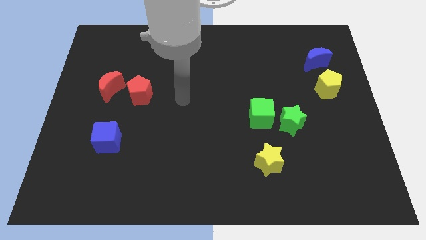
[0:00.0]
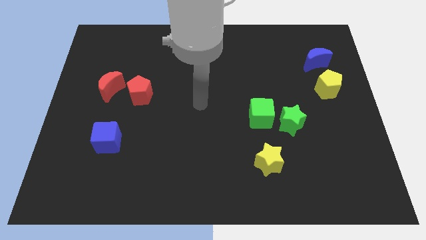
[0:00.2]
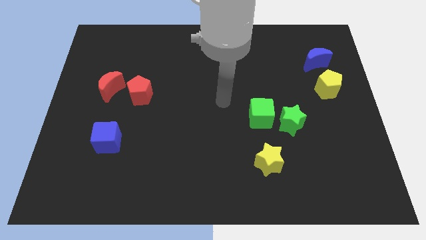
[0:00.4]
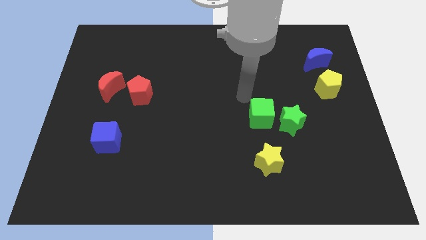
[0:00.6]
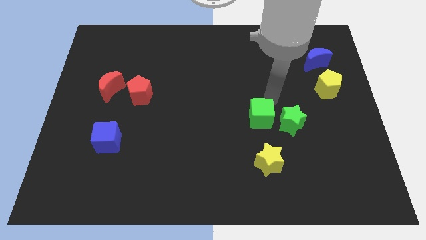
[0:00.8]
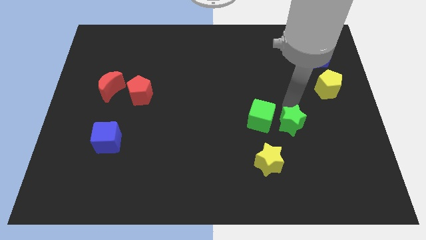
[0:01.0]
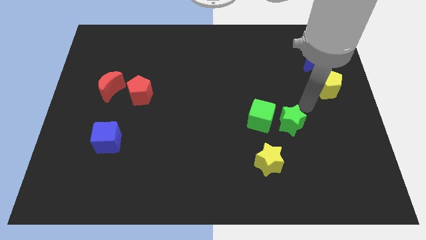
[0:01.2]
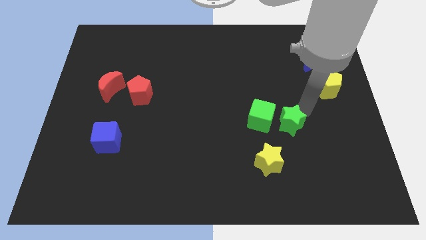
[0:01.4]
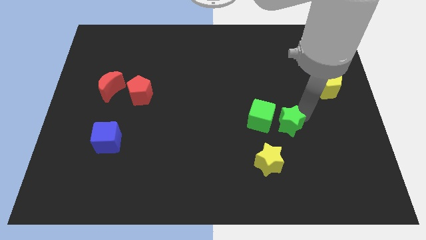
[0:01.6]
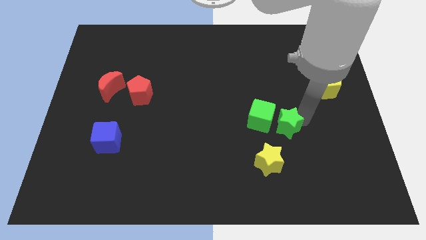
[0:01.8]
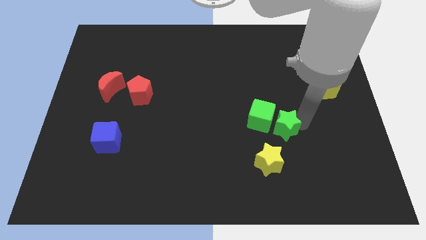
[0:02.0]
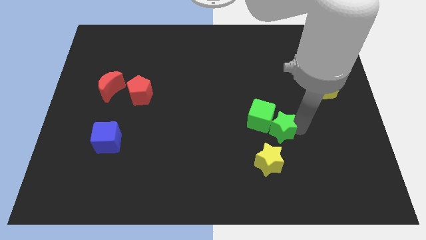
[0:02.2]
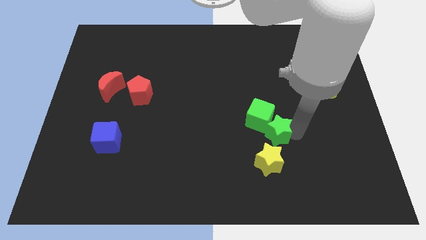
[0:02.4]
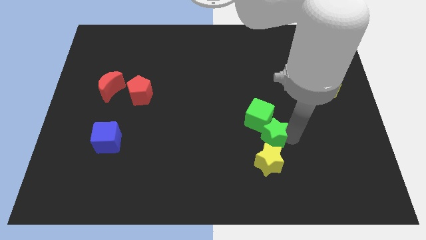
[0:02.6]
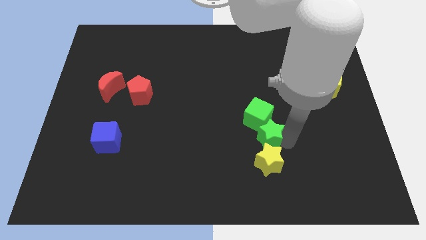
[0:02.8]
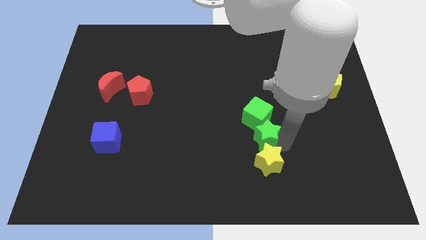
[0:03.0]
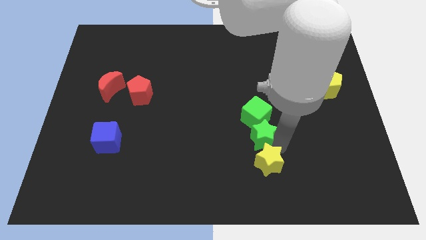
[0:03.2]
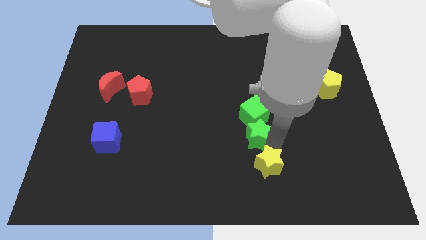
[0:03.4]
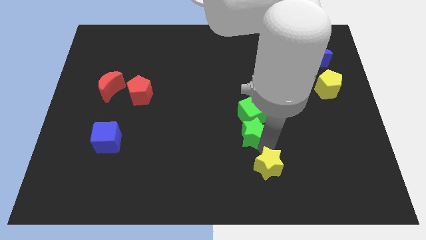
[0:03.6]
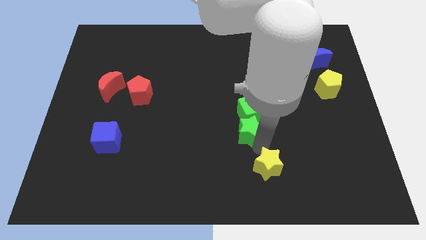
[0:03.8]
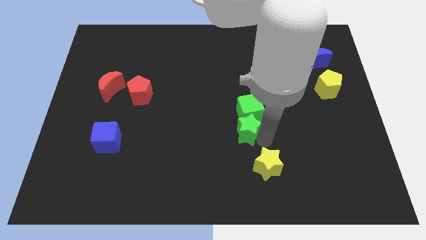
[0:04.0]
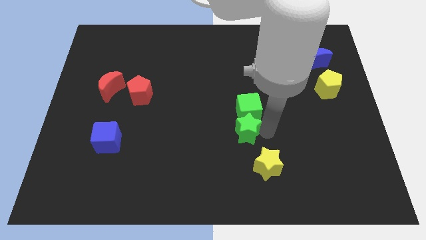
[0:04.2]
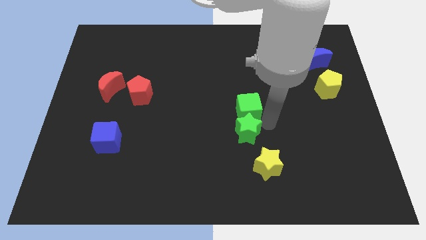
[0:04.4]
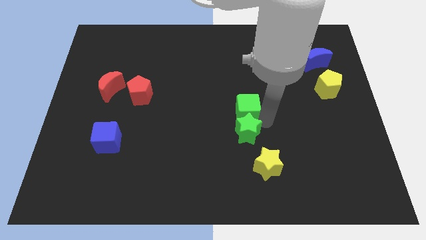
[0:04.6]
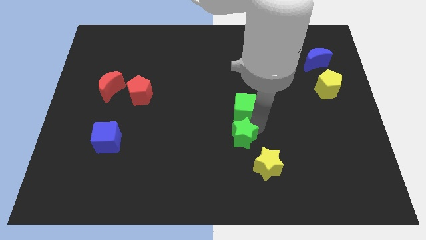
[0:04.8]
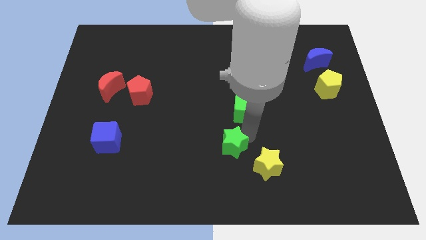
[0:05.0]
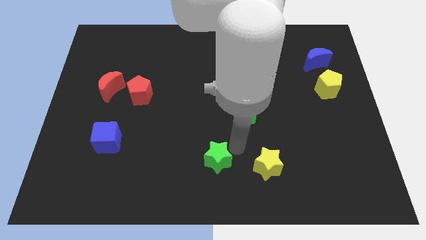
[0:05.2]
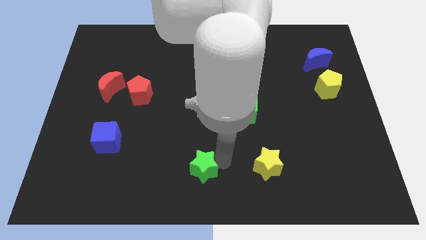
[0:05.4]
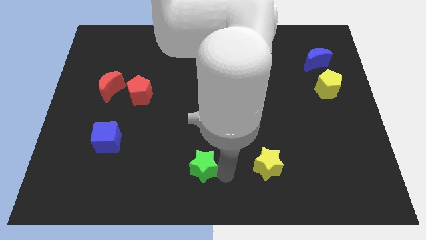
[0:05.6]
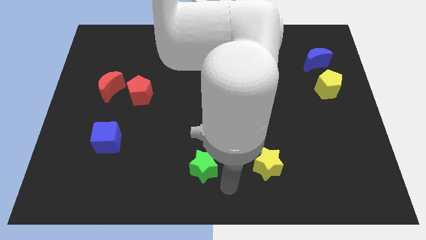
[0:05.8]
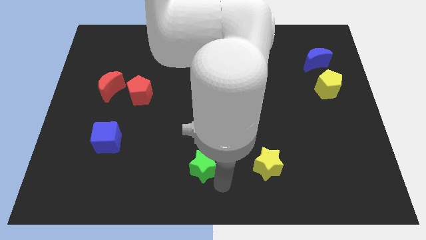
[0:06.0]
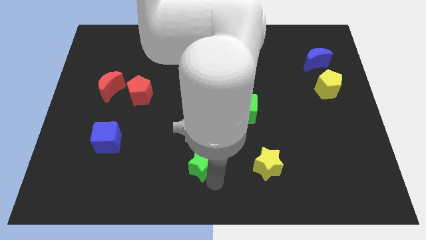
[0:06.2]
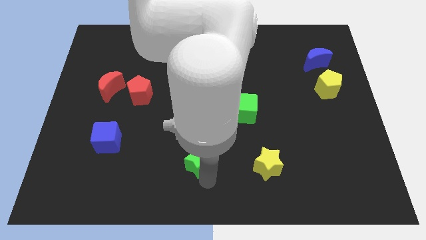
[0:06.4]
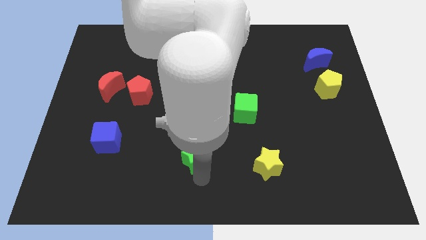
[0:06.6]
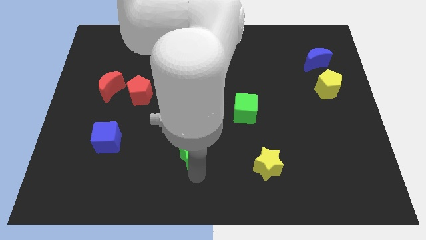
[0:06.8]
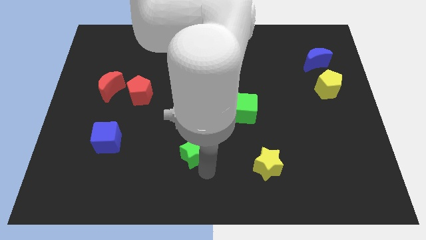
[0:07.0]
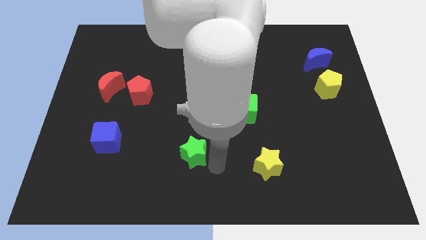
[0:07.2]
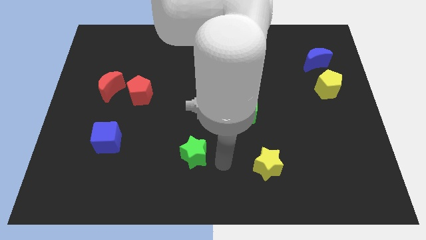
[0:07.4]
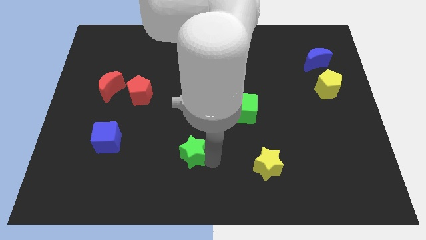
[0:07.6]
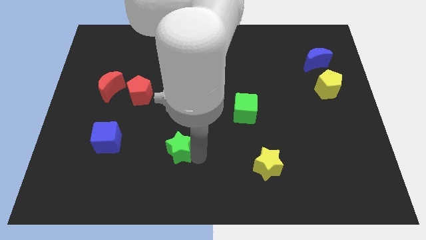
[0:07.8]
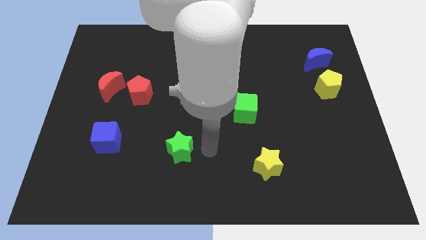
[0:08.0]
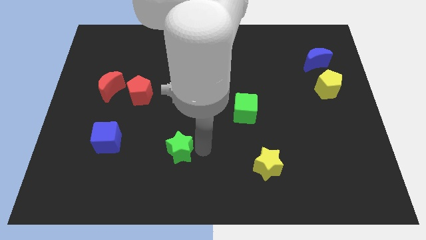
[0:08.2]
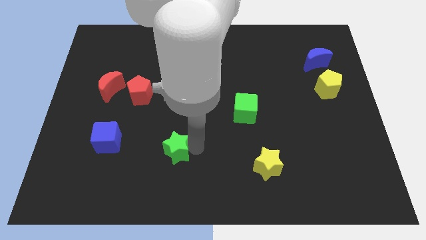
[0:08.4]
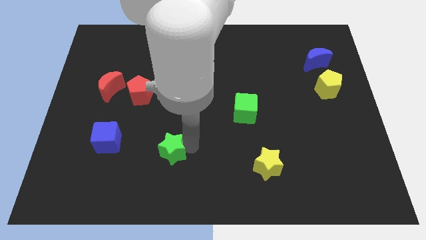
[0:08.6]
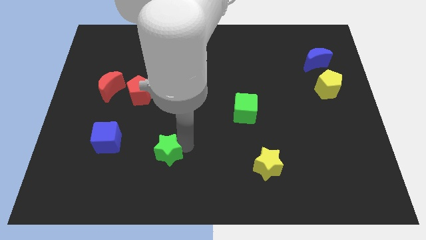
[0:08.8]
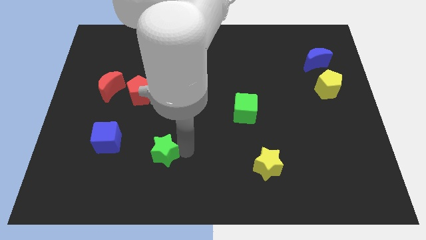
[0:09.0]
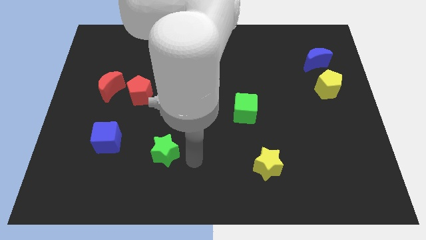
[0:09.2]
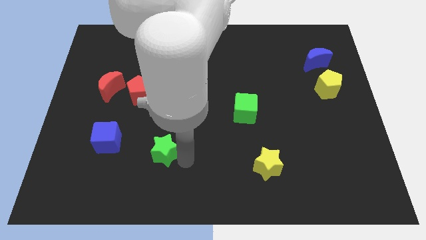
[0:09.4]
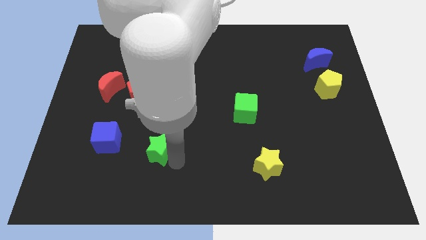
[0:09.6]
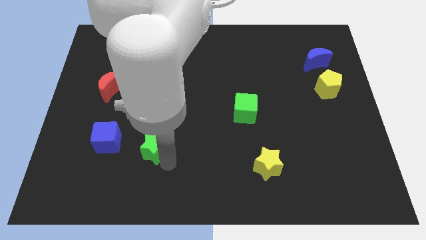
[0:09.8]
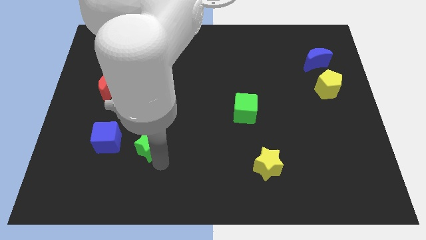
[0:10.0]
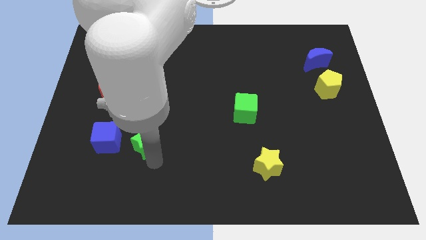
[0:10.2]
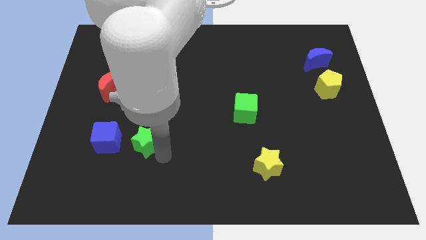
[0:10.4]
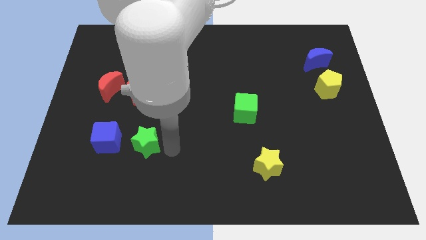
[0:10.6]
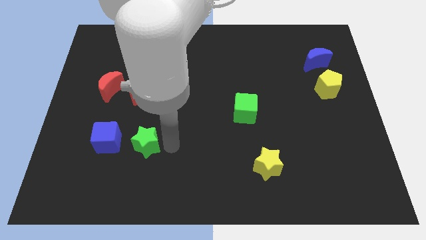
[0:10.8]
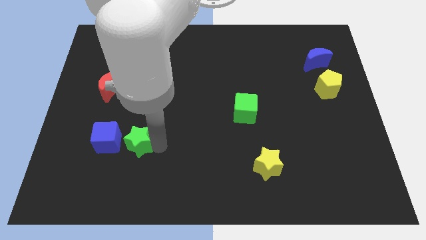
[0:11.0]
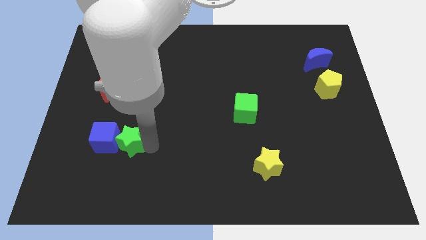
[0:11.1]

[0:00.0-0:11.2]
push the green star towards the blue cube

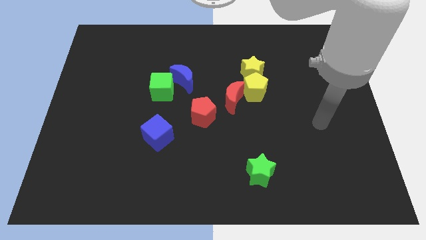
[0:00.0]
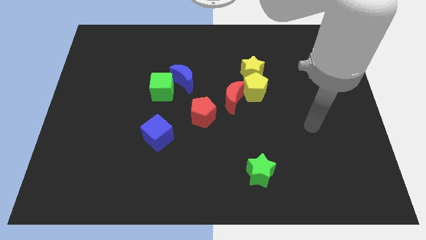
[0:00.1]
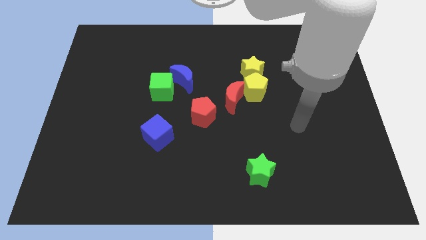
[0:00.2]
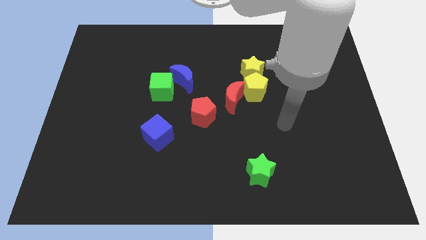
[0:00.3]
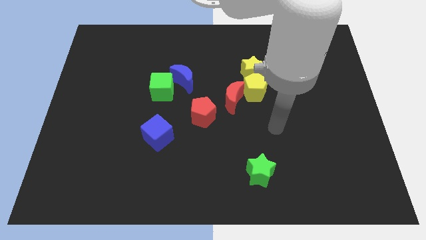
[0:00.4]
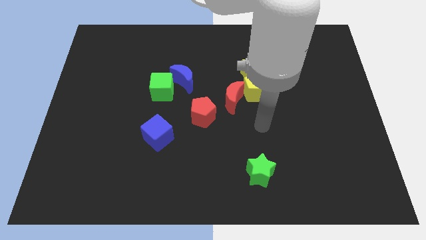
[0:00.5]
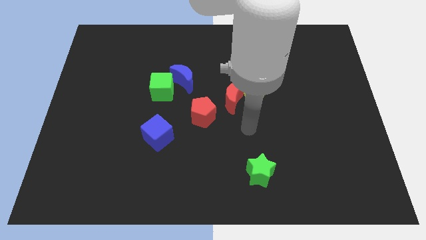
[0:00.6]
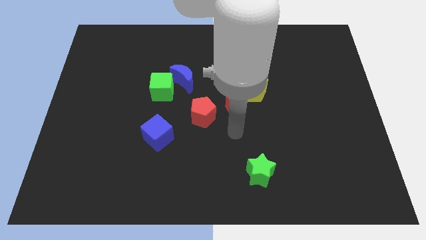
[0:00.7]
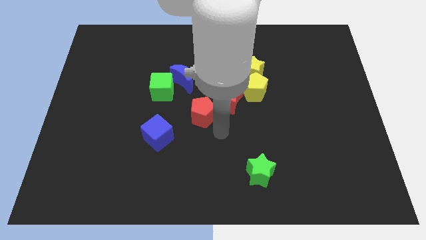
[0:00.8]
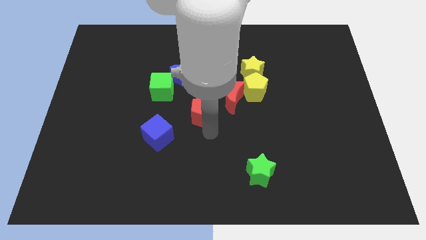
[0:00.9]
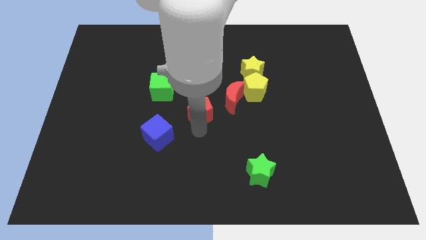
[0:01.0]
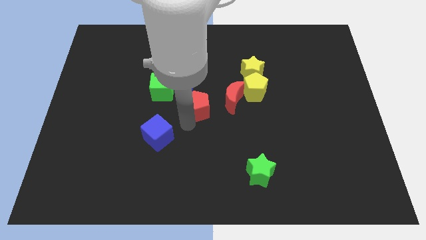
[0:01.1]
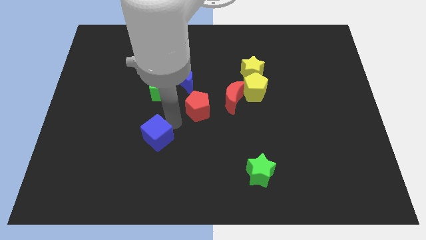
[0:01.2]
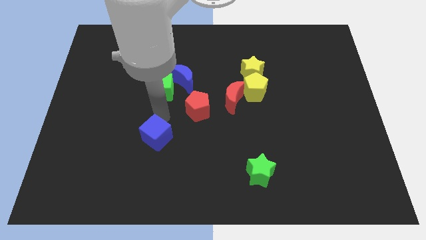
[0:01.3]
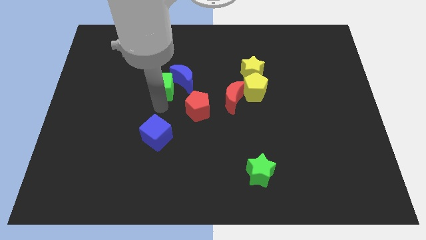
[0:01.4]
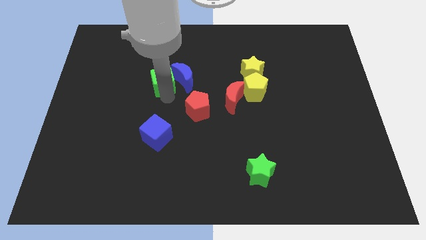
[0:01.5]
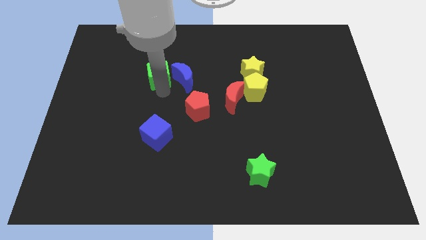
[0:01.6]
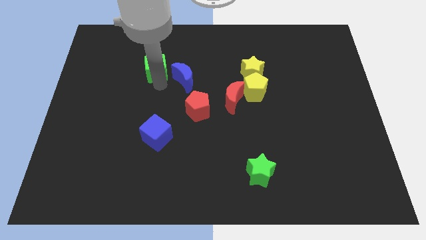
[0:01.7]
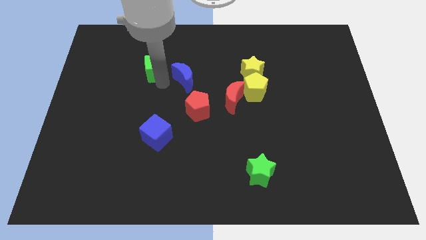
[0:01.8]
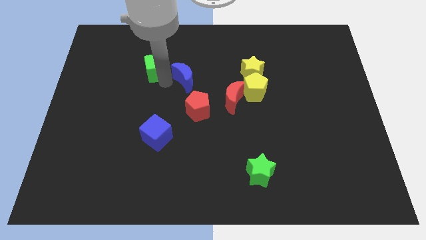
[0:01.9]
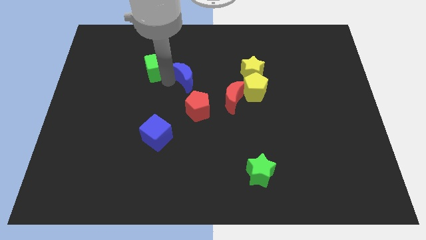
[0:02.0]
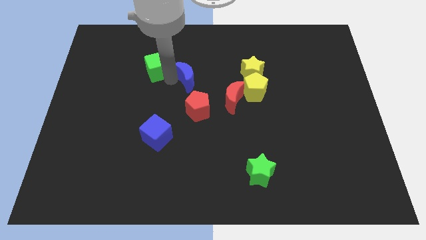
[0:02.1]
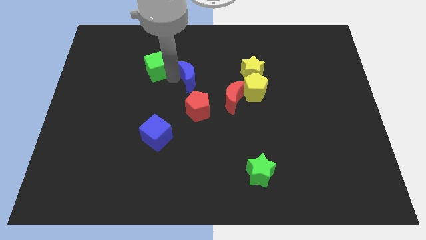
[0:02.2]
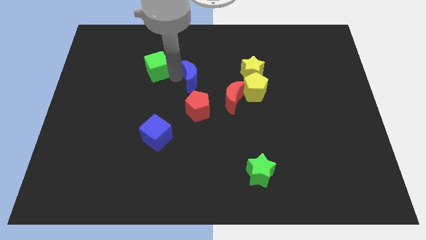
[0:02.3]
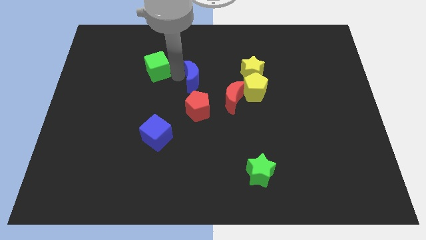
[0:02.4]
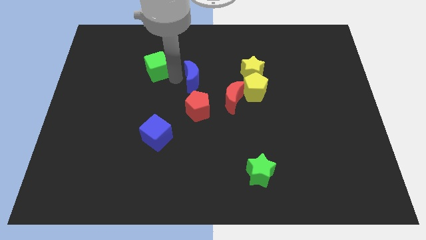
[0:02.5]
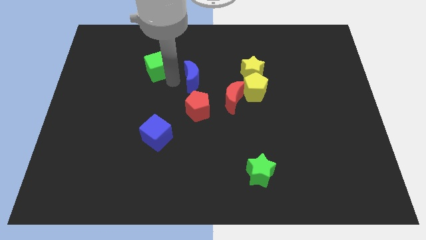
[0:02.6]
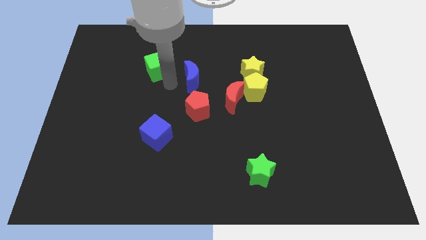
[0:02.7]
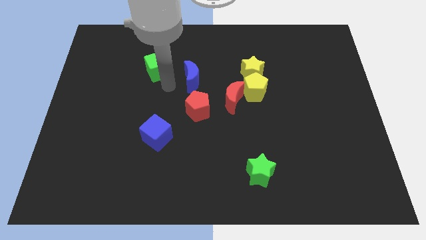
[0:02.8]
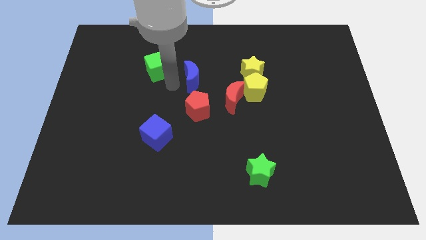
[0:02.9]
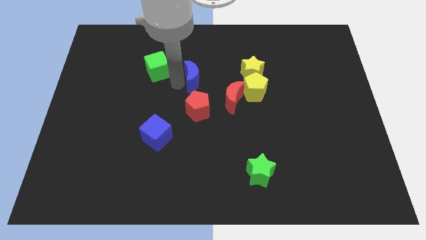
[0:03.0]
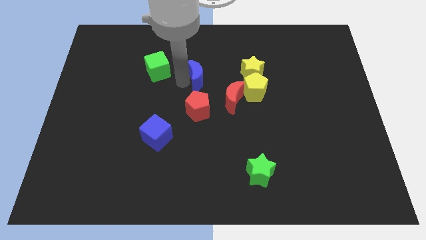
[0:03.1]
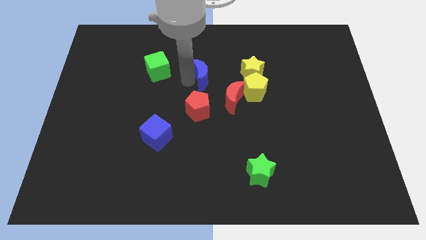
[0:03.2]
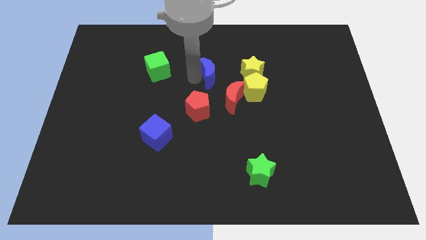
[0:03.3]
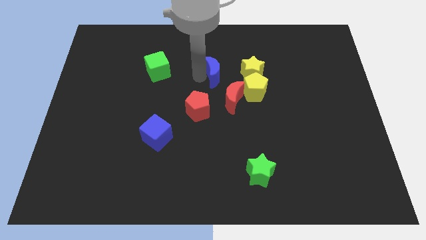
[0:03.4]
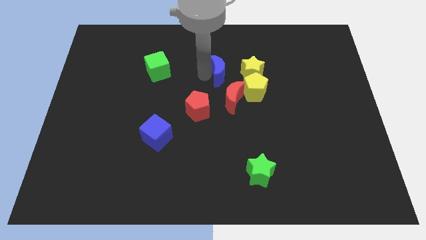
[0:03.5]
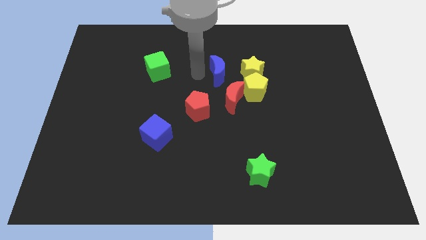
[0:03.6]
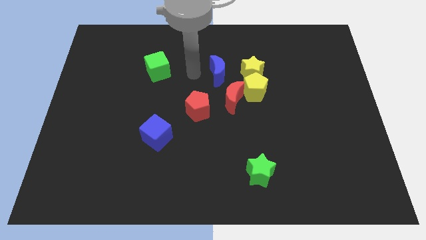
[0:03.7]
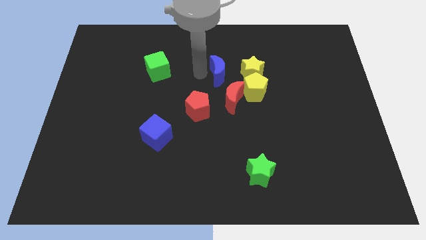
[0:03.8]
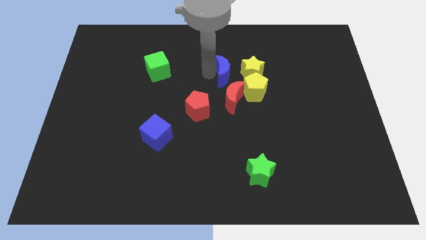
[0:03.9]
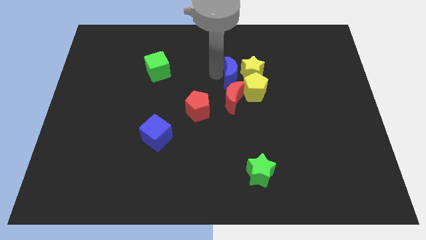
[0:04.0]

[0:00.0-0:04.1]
slide the blue moon next to the yellow star
